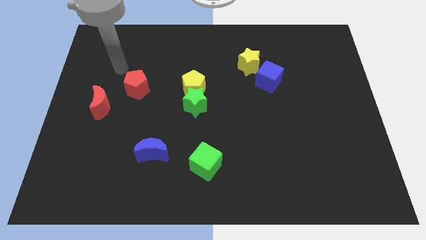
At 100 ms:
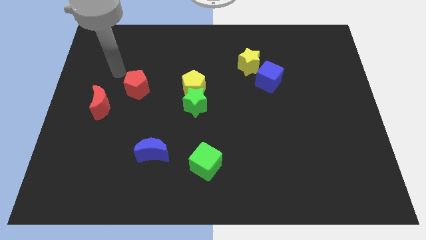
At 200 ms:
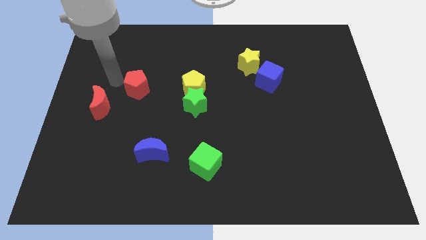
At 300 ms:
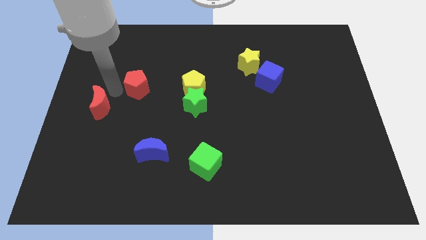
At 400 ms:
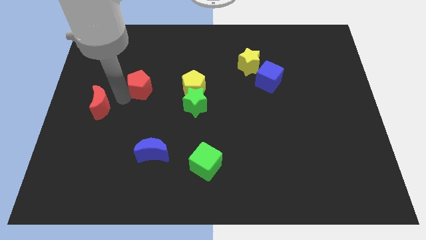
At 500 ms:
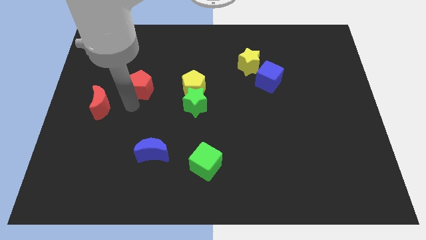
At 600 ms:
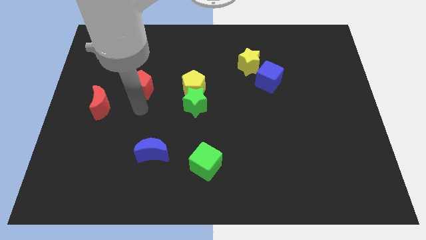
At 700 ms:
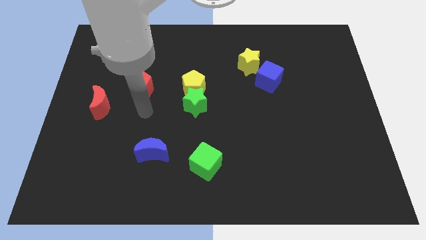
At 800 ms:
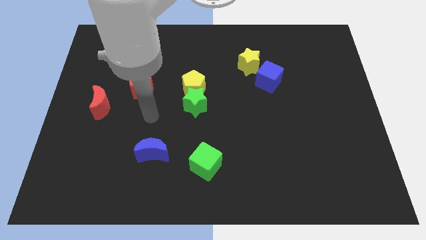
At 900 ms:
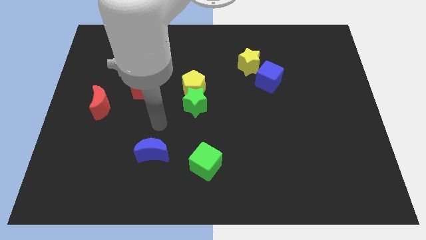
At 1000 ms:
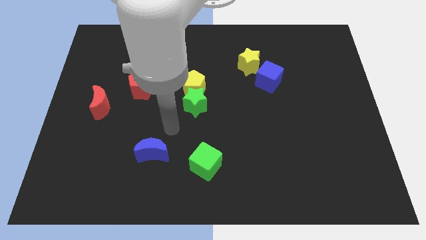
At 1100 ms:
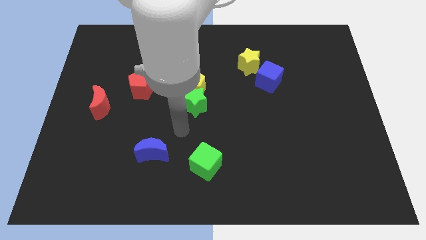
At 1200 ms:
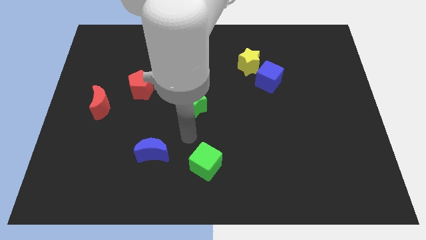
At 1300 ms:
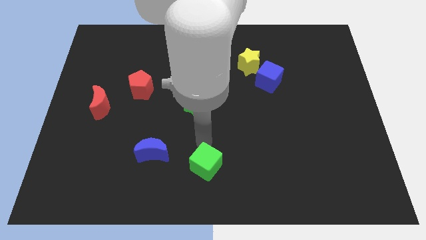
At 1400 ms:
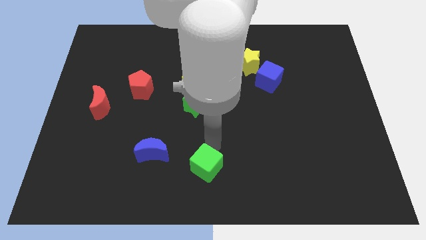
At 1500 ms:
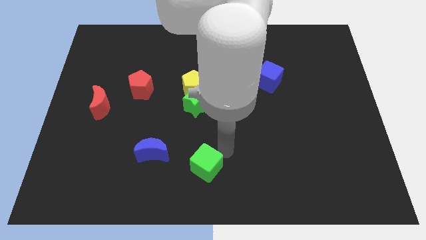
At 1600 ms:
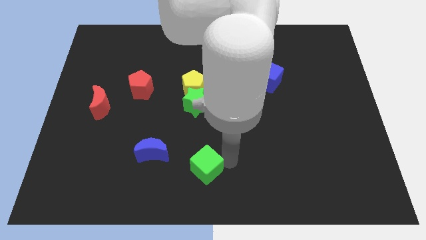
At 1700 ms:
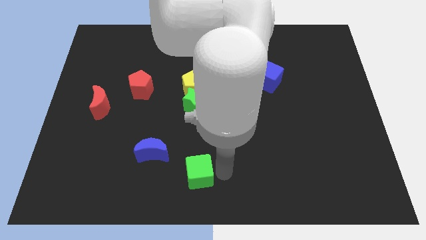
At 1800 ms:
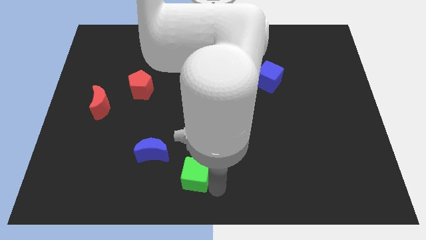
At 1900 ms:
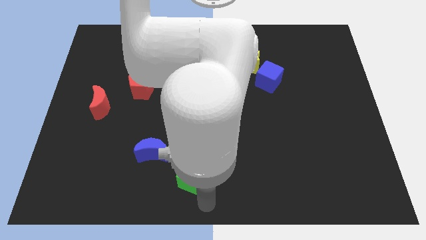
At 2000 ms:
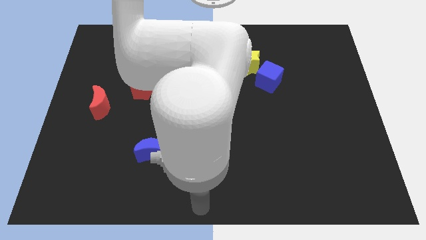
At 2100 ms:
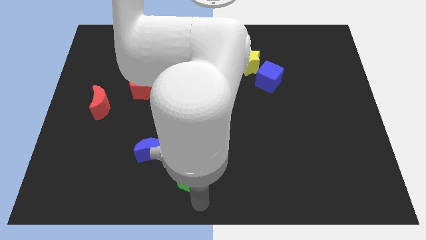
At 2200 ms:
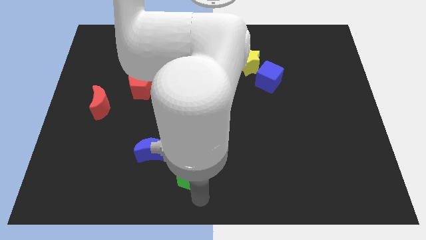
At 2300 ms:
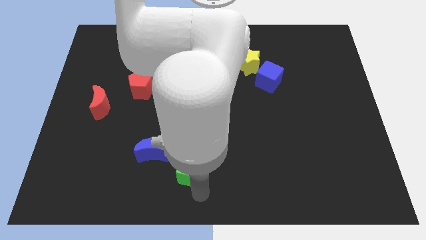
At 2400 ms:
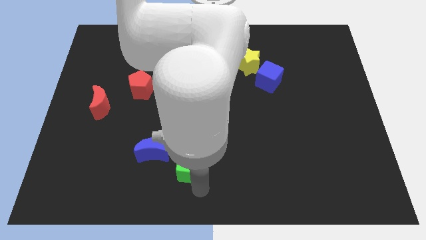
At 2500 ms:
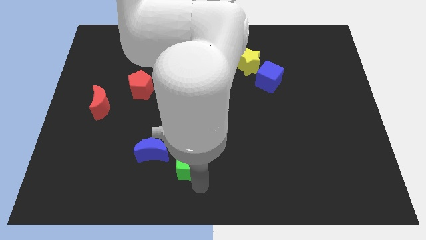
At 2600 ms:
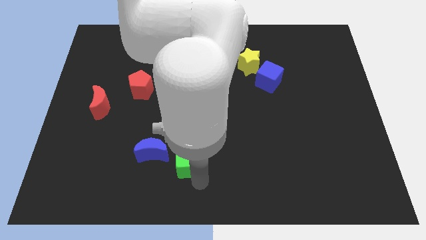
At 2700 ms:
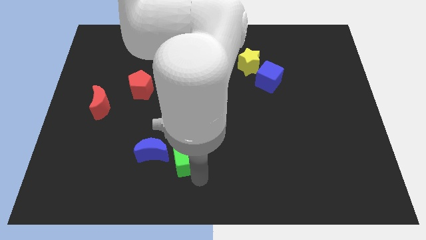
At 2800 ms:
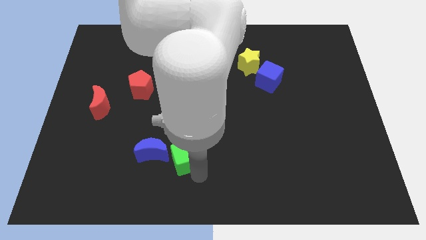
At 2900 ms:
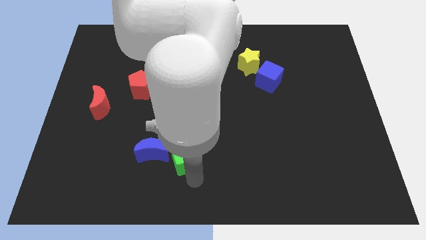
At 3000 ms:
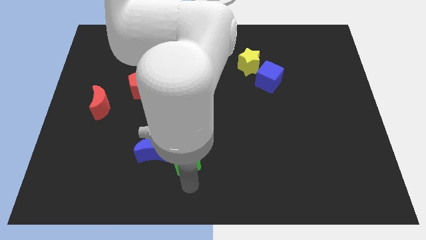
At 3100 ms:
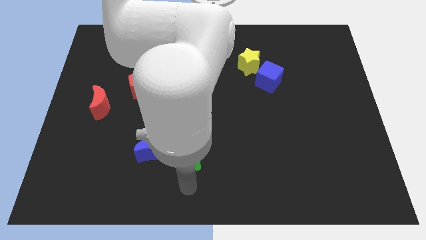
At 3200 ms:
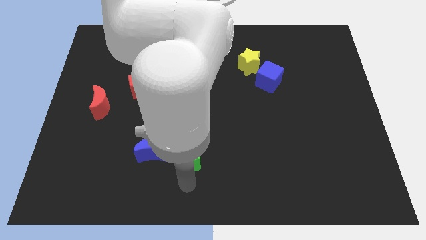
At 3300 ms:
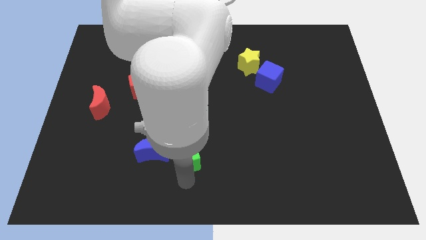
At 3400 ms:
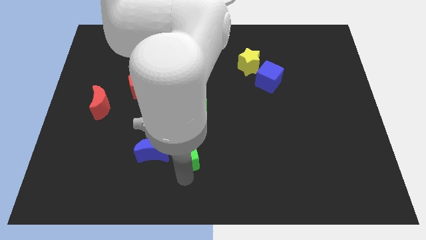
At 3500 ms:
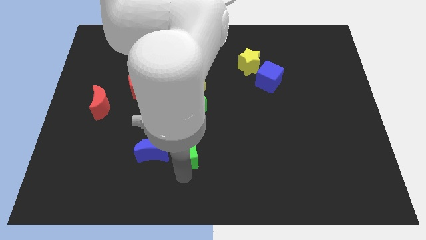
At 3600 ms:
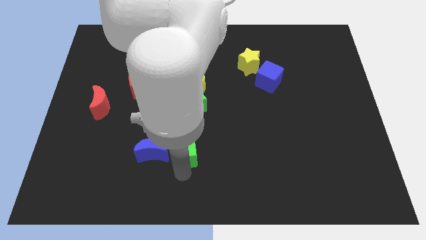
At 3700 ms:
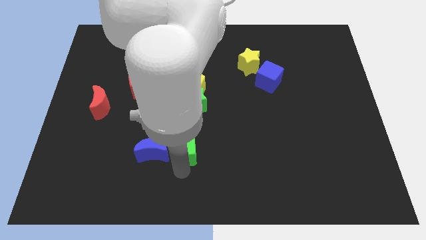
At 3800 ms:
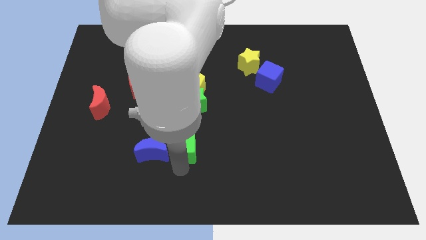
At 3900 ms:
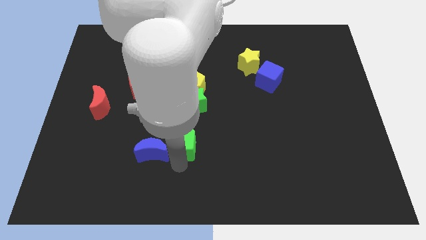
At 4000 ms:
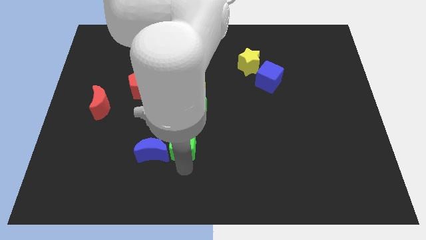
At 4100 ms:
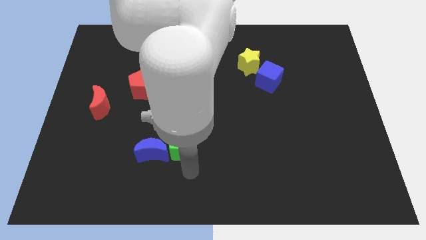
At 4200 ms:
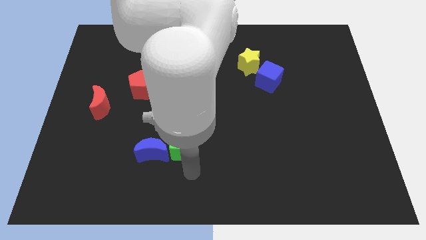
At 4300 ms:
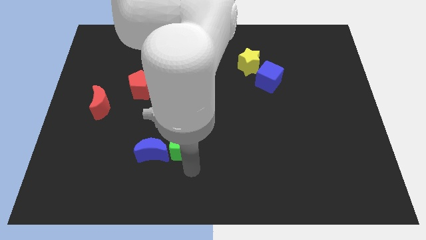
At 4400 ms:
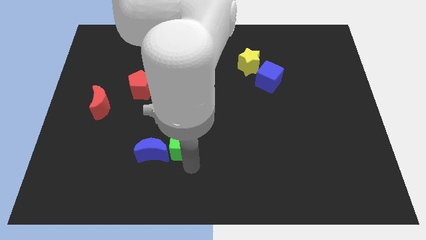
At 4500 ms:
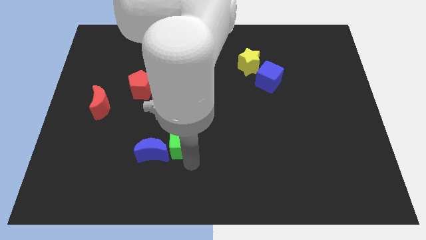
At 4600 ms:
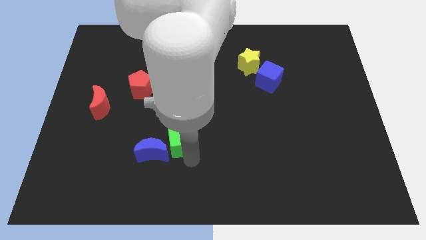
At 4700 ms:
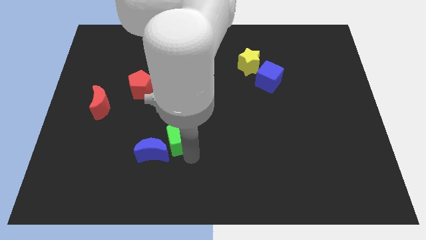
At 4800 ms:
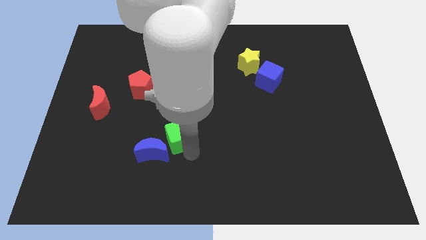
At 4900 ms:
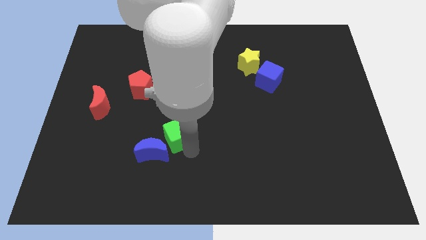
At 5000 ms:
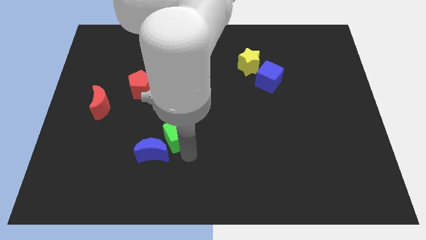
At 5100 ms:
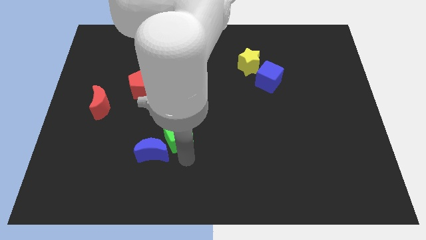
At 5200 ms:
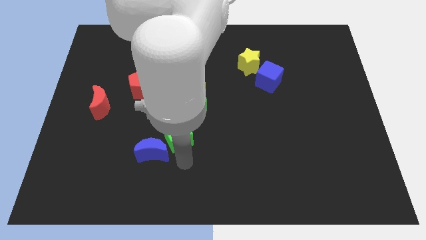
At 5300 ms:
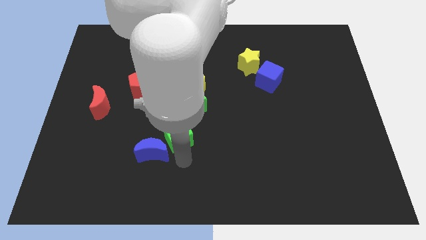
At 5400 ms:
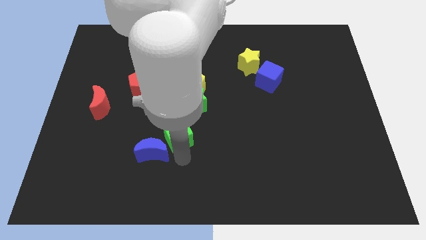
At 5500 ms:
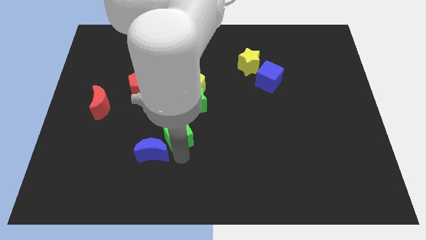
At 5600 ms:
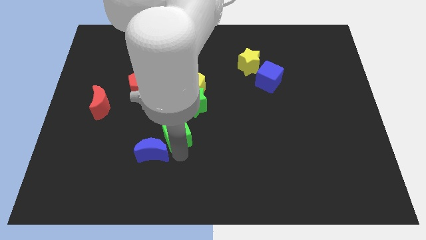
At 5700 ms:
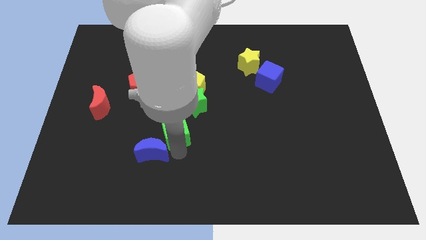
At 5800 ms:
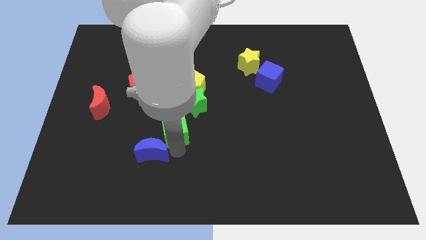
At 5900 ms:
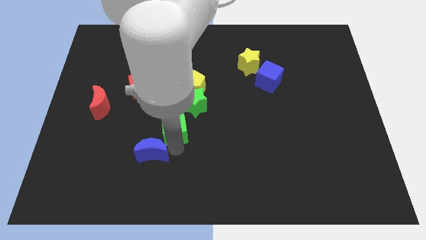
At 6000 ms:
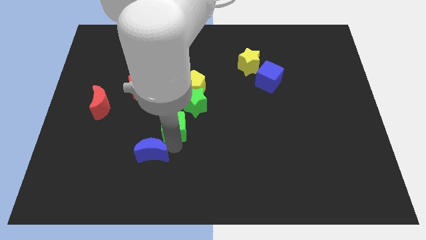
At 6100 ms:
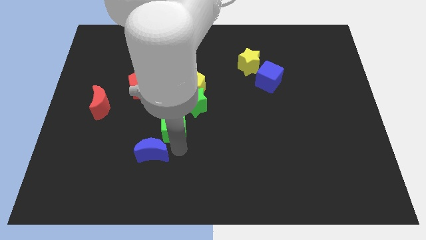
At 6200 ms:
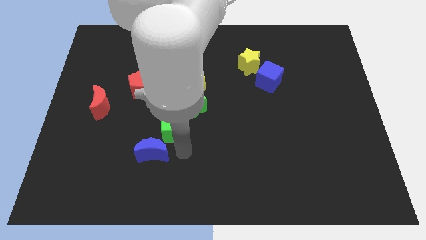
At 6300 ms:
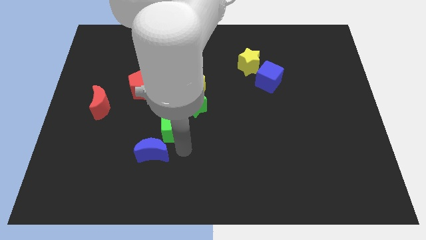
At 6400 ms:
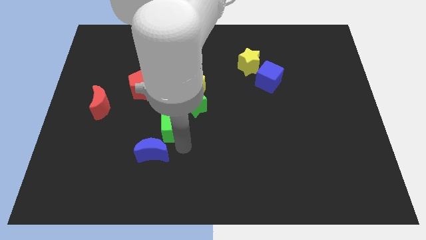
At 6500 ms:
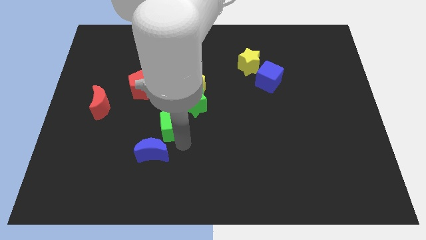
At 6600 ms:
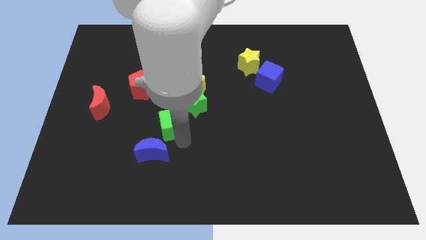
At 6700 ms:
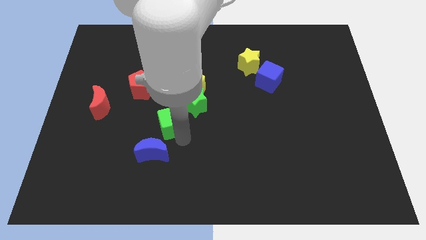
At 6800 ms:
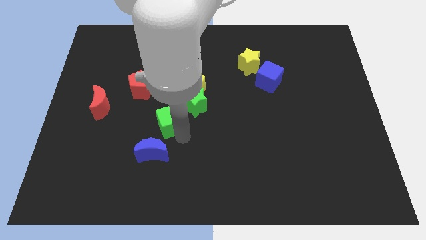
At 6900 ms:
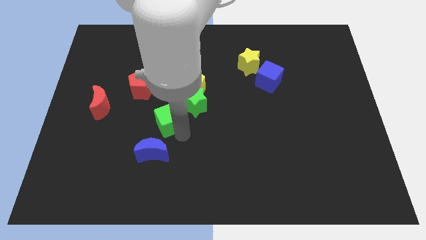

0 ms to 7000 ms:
move the green cube diagonally down and to the right of the red pentagon
